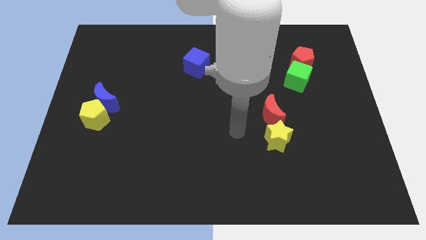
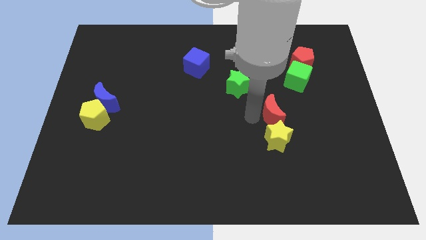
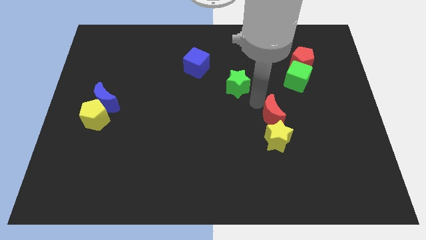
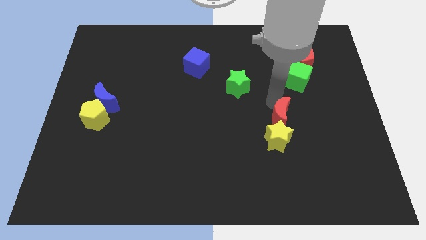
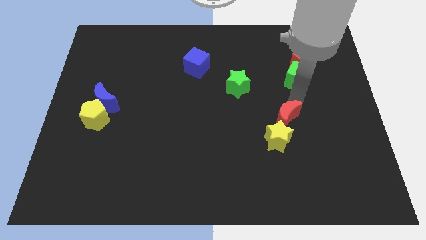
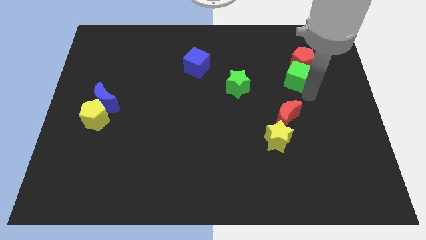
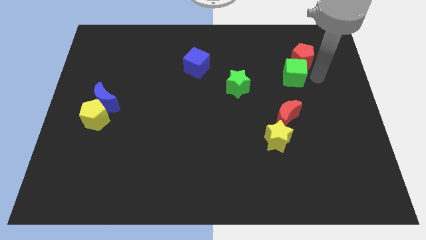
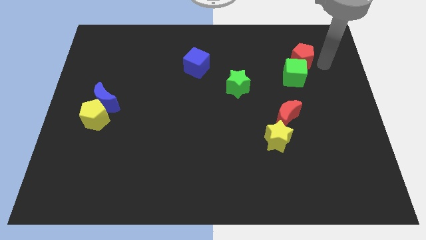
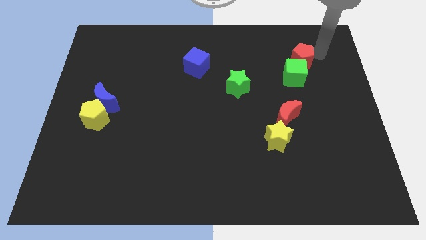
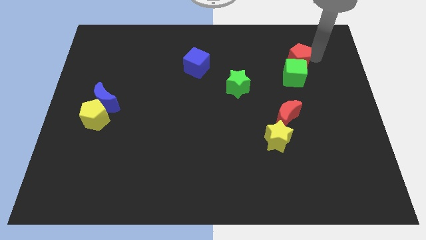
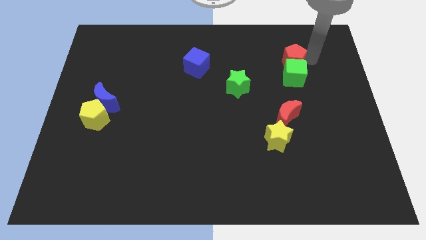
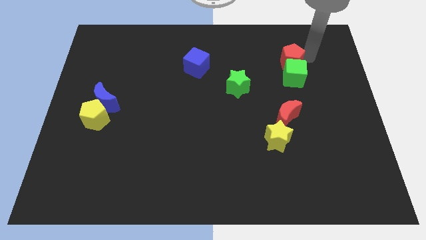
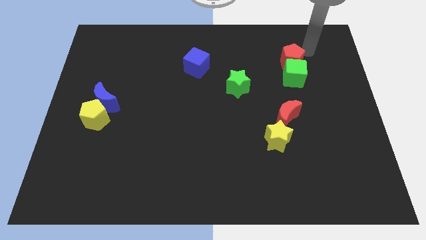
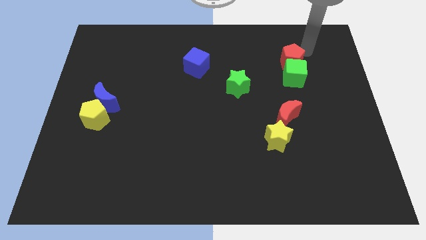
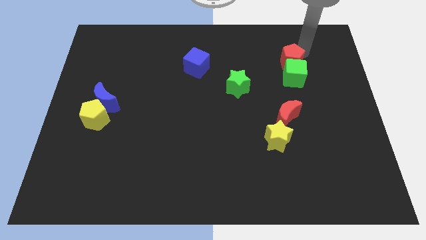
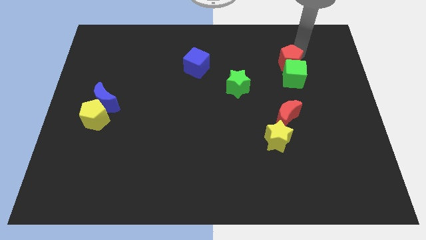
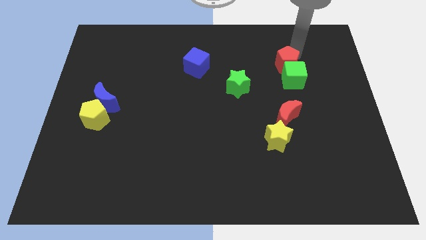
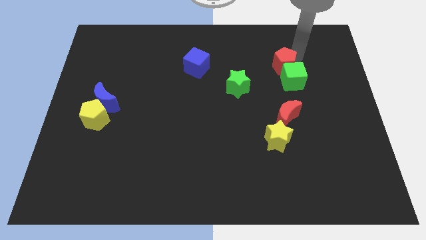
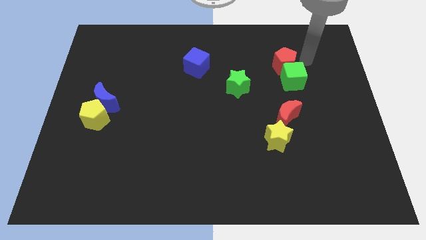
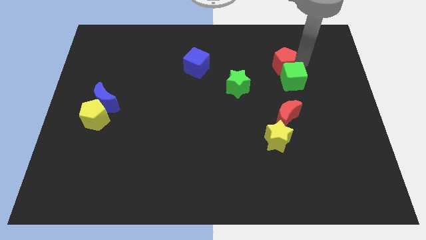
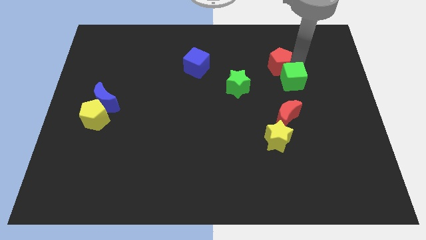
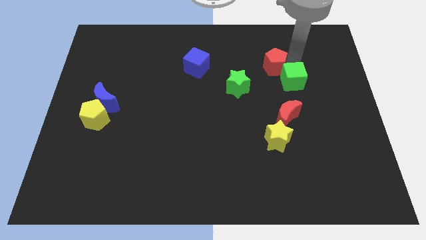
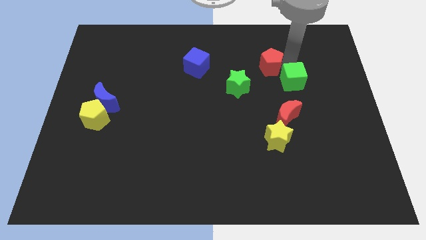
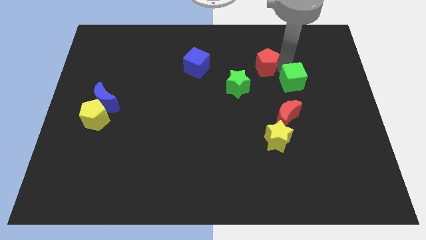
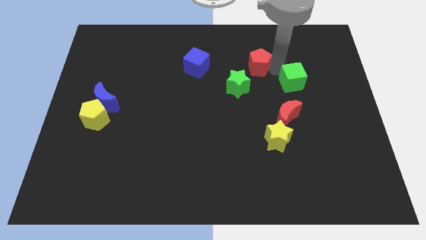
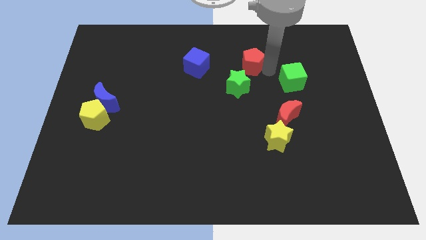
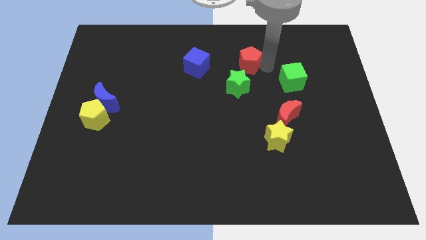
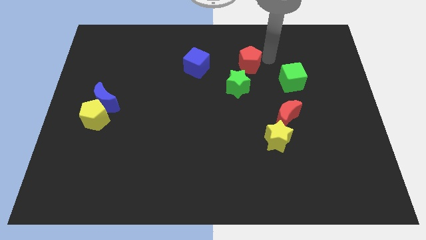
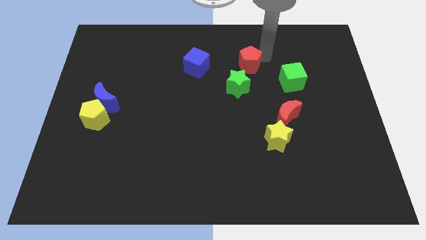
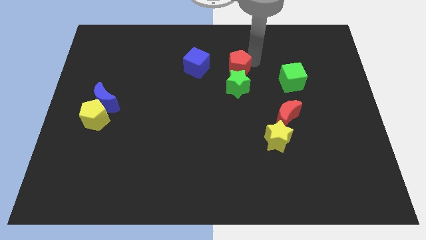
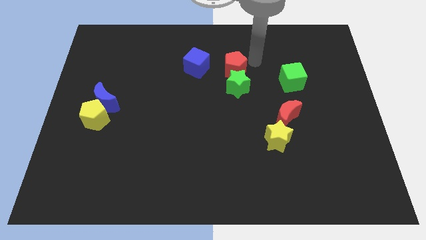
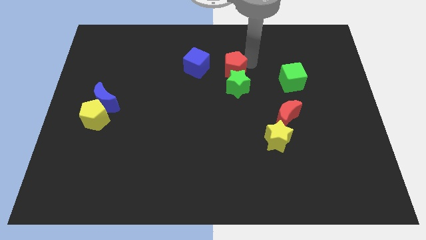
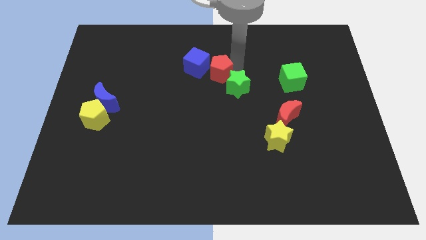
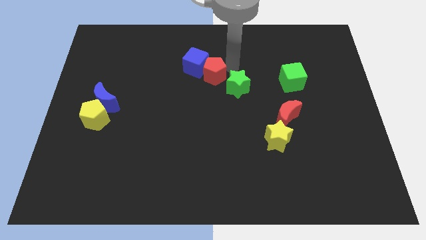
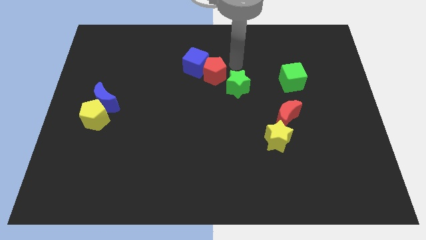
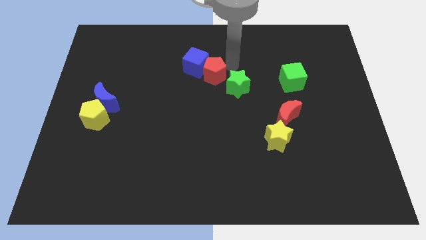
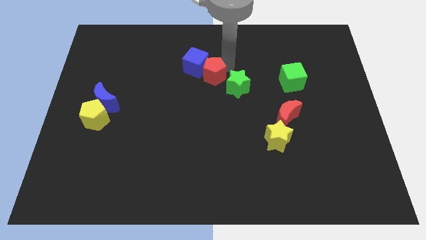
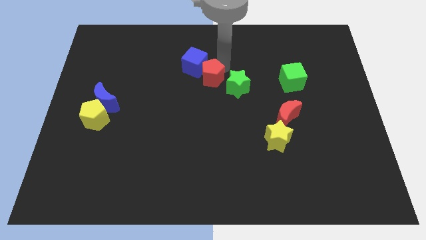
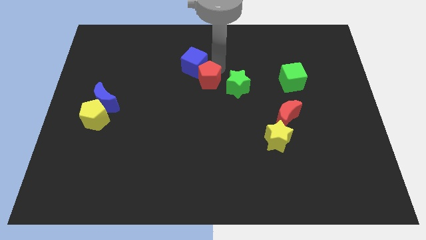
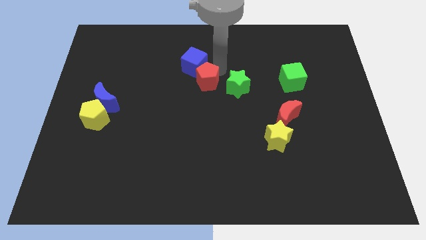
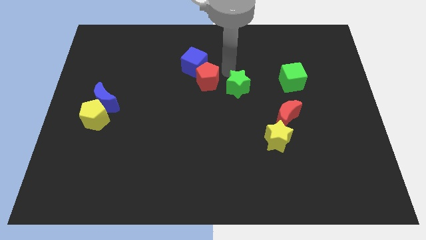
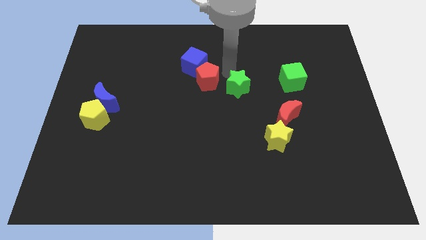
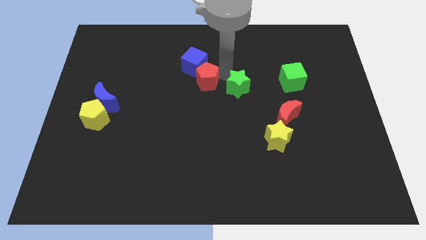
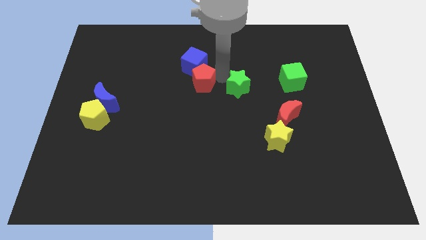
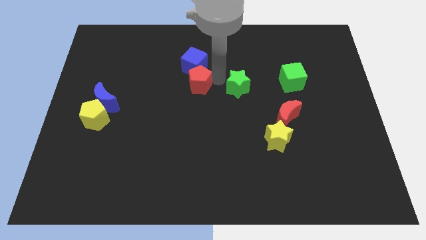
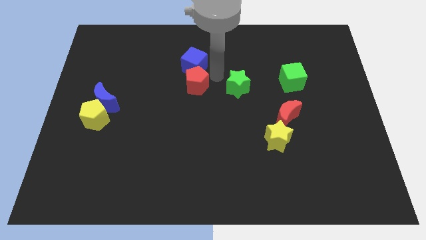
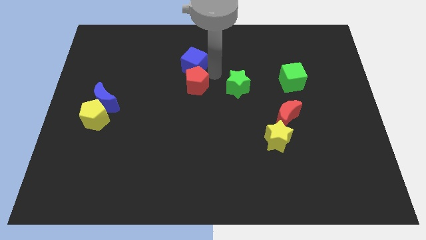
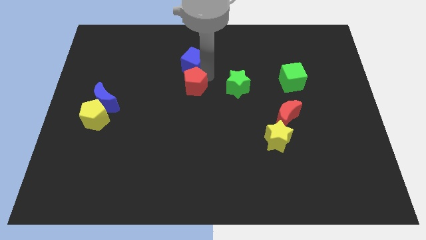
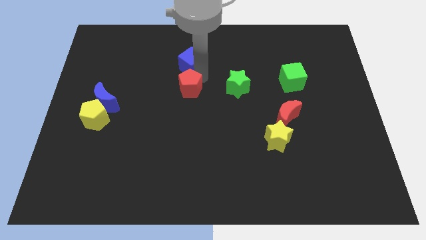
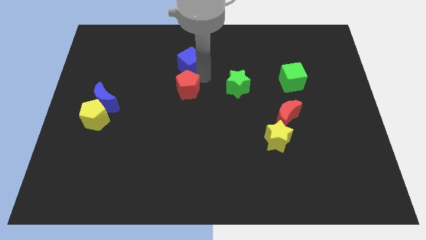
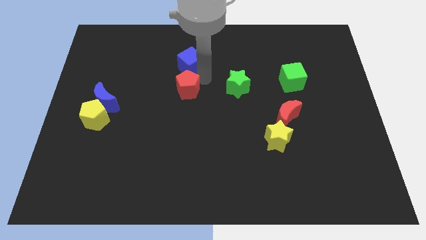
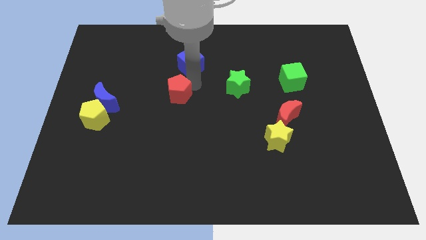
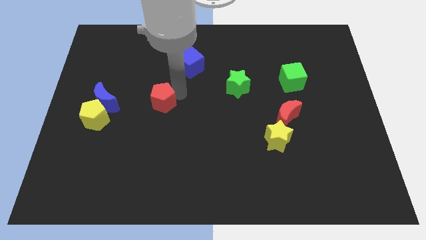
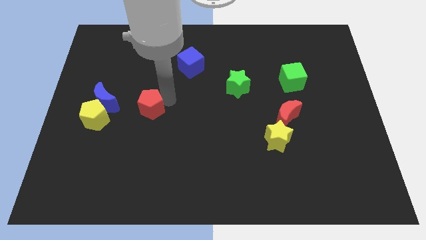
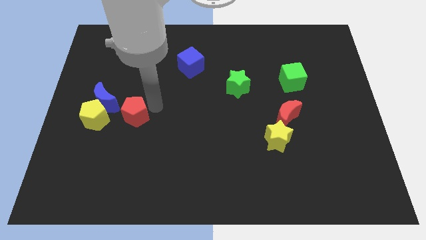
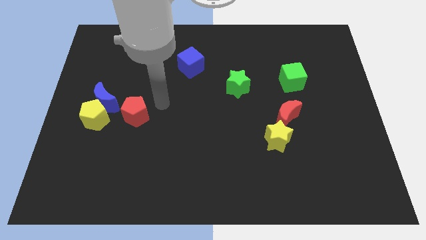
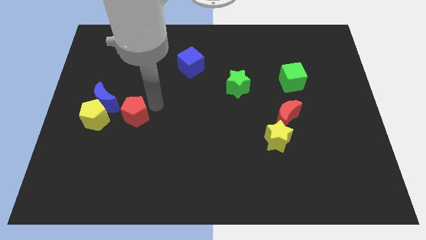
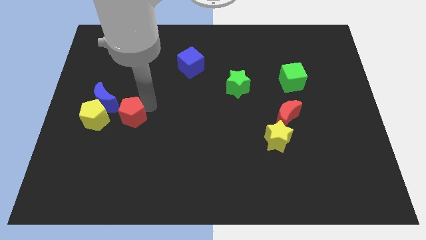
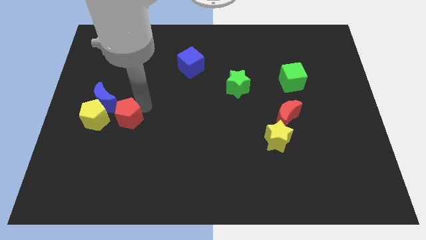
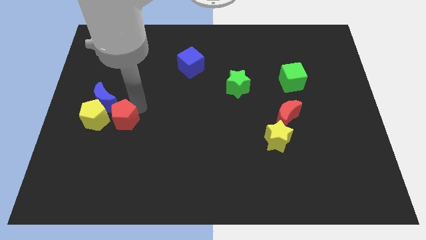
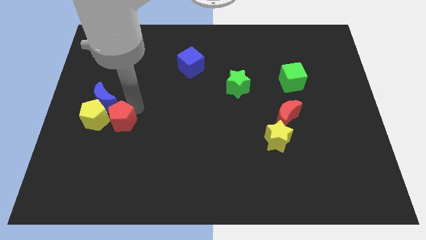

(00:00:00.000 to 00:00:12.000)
move the red pentagon close to the yellow pentagon

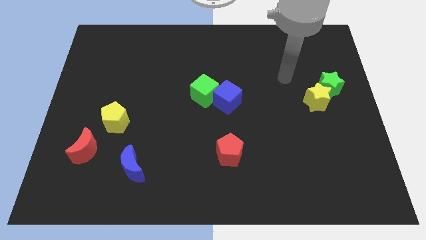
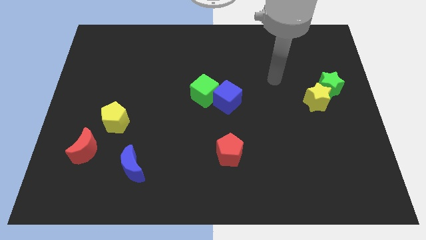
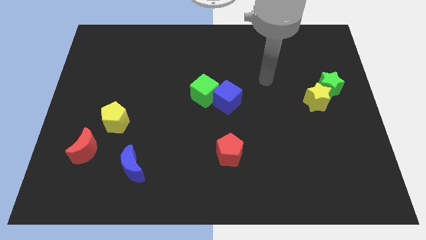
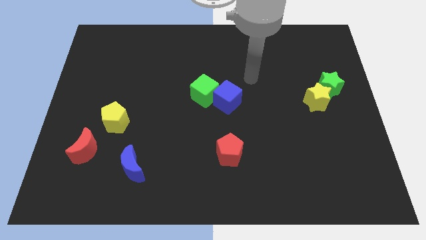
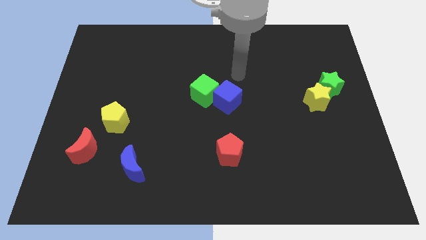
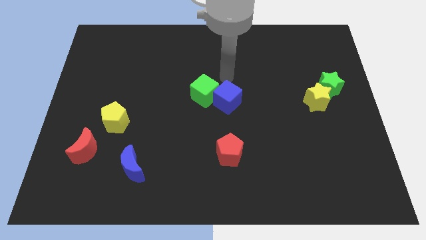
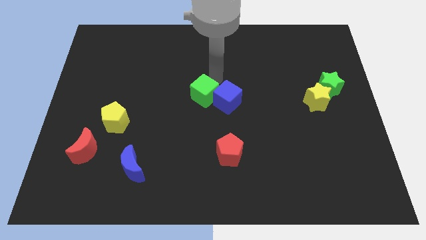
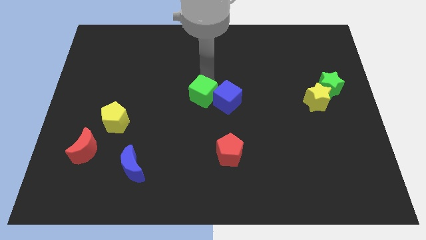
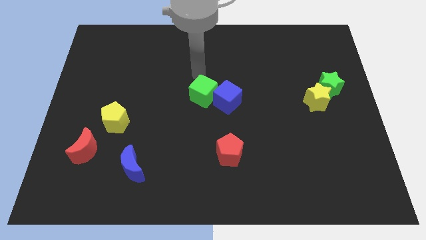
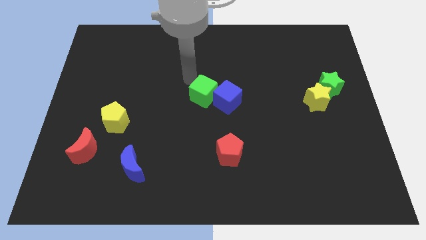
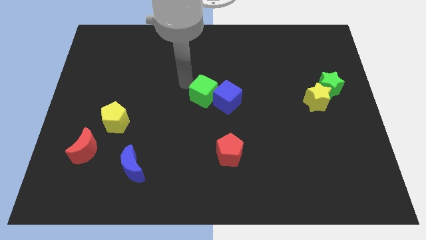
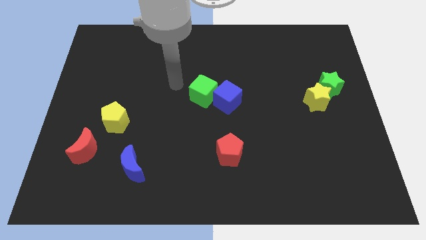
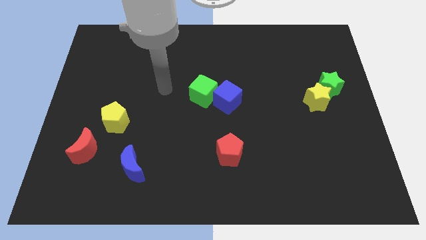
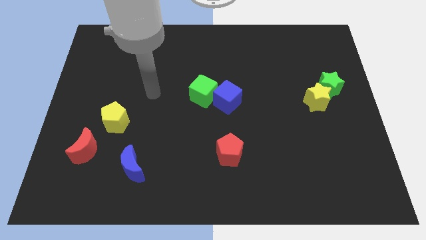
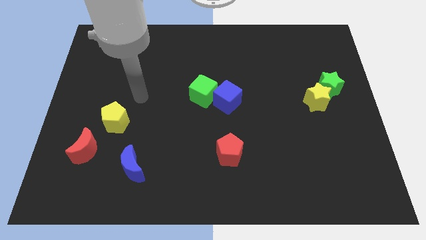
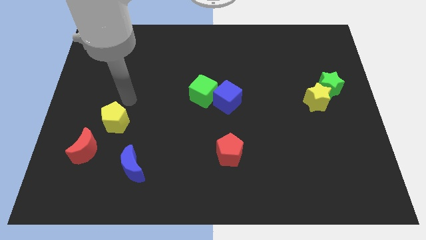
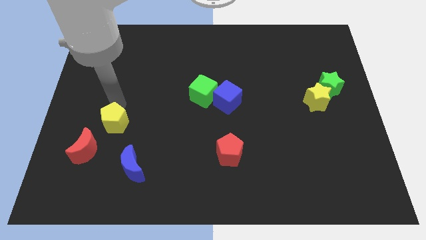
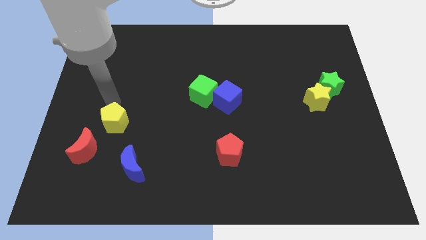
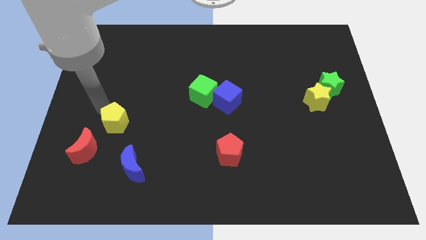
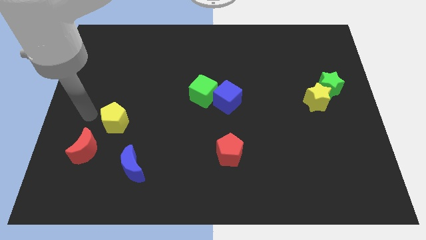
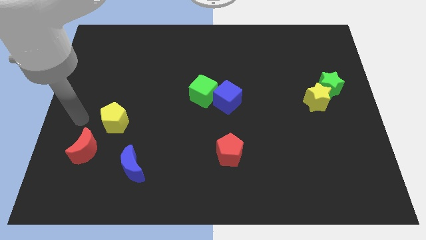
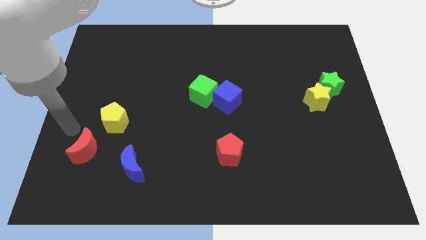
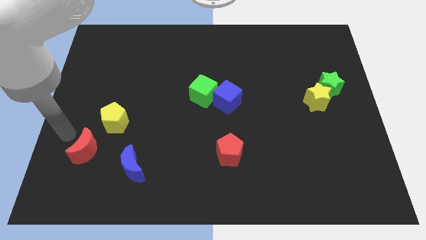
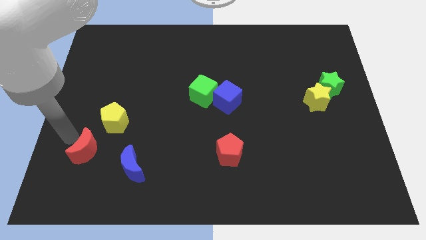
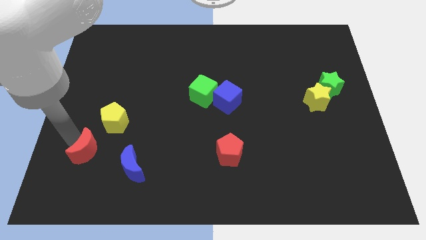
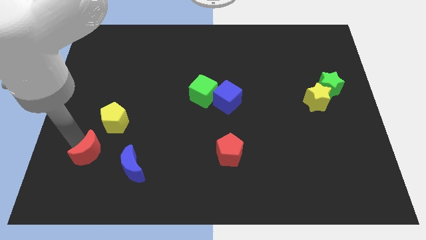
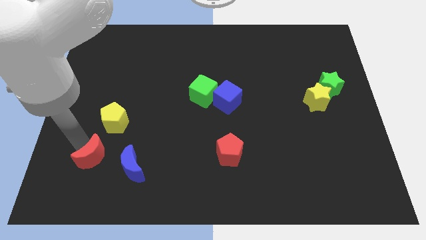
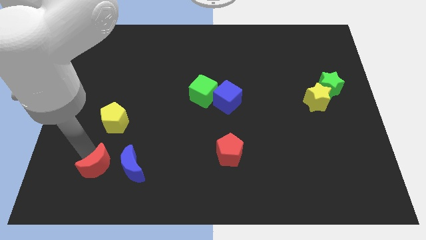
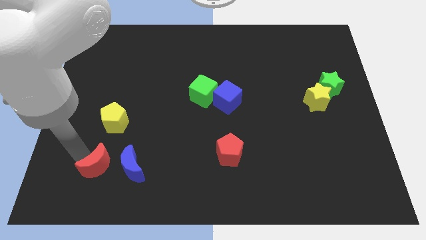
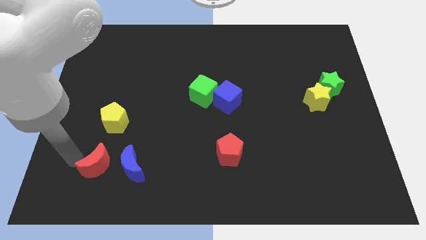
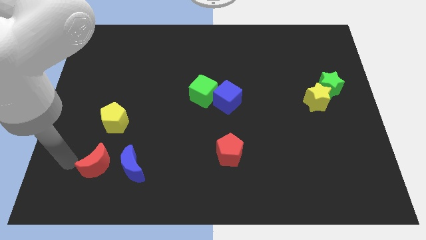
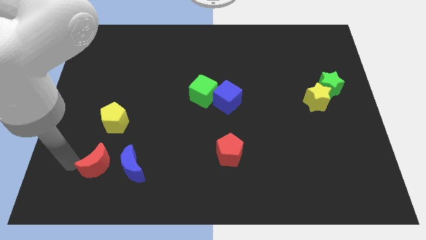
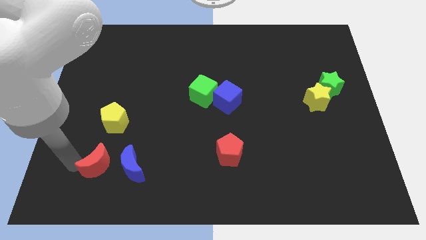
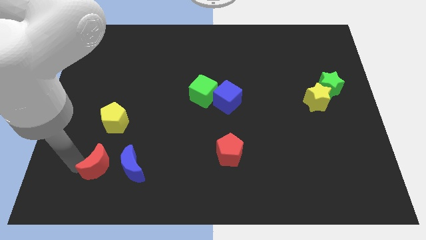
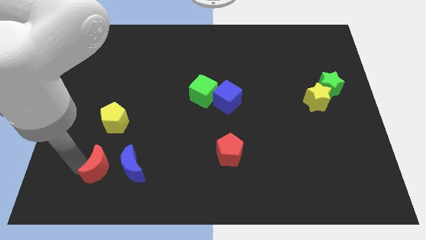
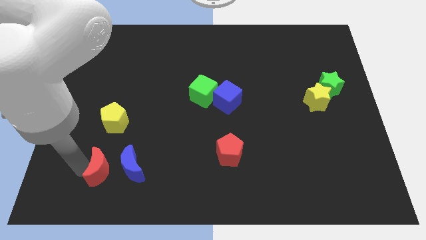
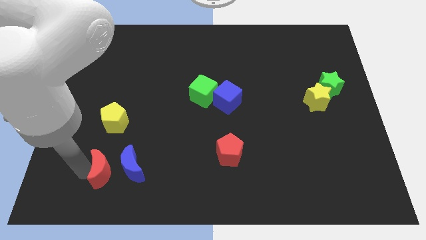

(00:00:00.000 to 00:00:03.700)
move the red moon to the blue moon
